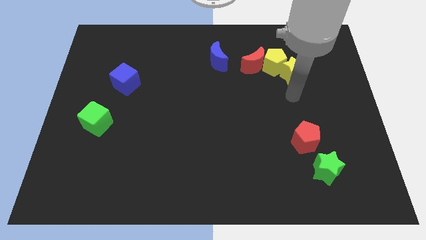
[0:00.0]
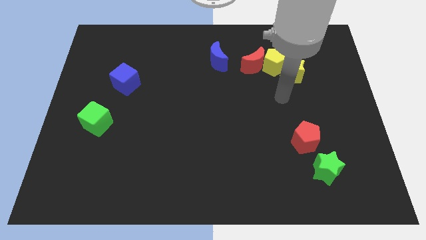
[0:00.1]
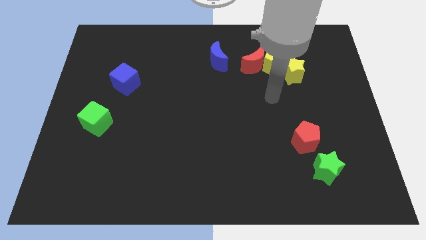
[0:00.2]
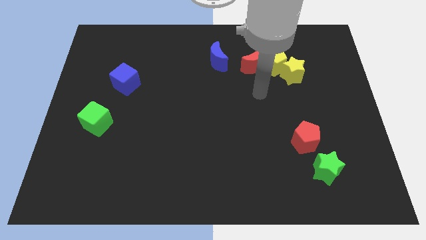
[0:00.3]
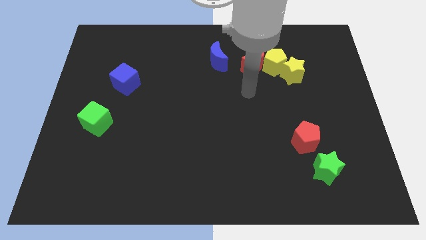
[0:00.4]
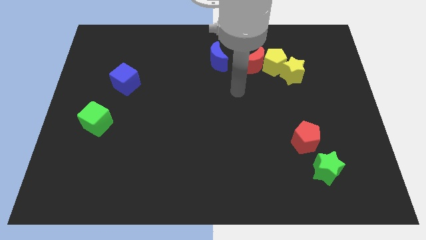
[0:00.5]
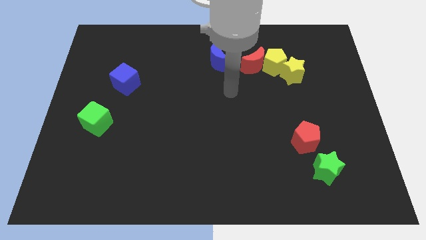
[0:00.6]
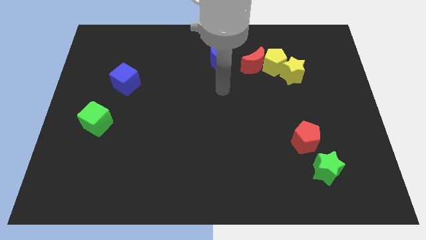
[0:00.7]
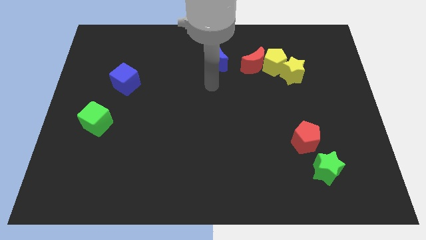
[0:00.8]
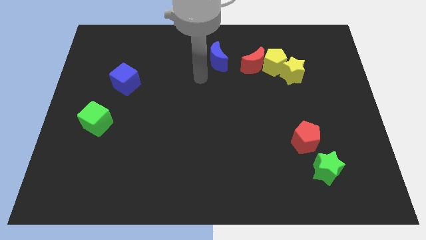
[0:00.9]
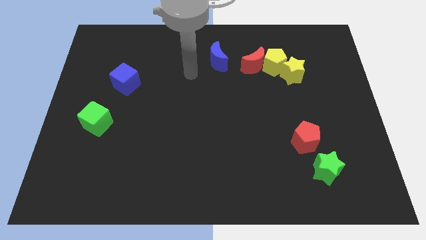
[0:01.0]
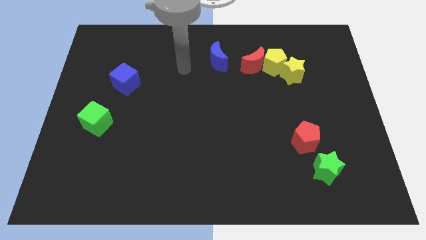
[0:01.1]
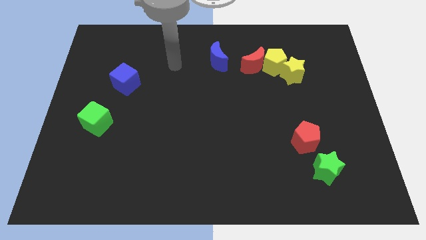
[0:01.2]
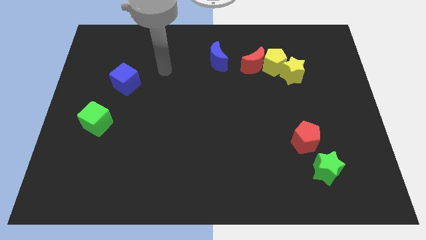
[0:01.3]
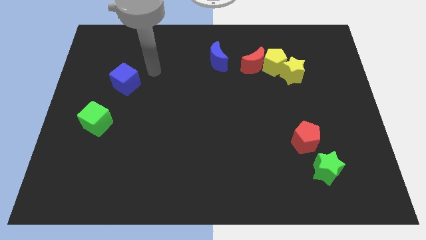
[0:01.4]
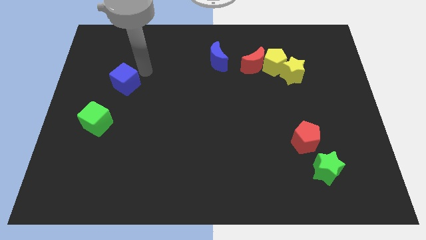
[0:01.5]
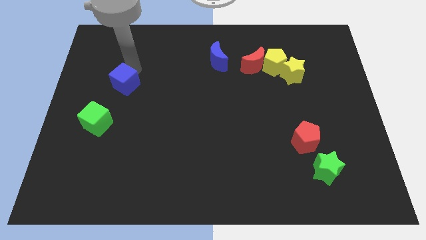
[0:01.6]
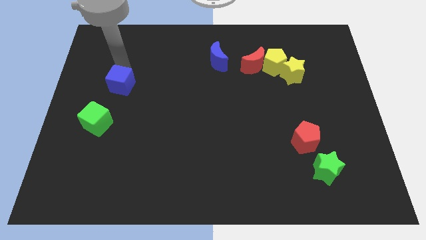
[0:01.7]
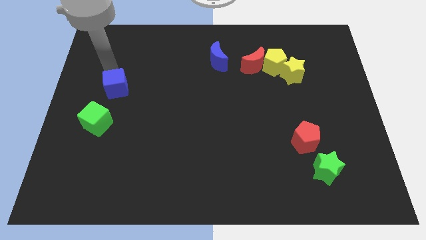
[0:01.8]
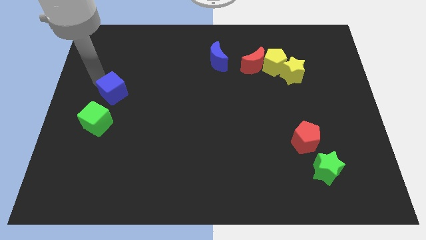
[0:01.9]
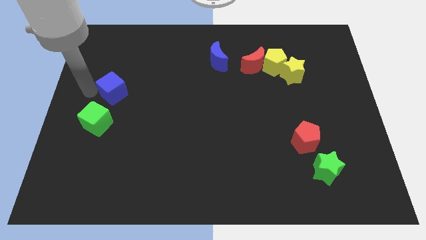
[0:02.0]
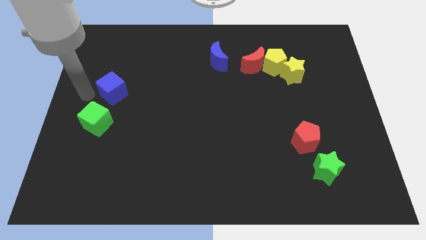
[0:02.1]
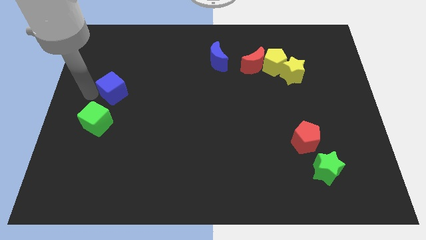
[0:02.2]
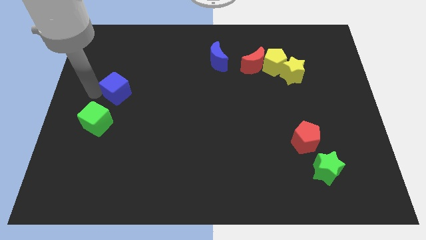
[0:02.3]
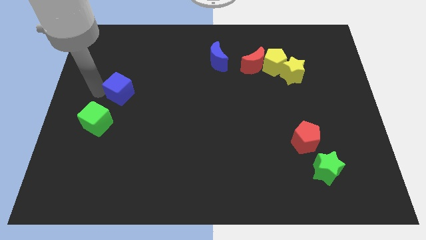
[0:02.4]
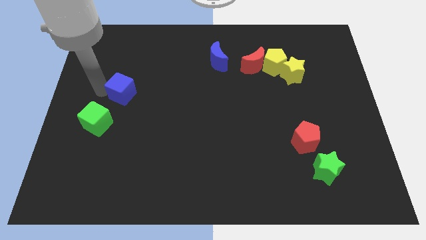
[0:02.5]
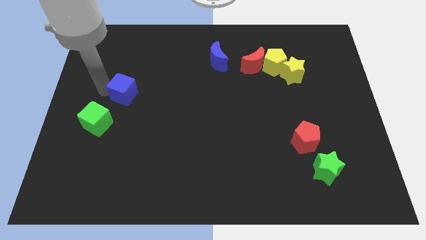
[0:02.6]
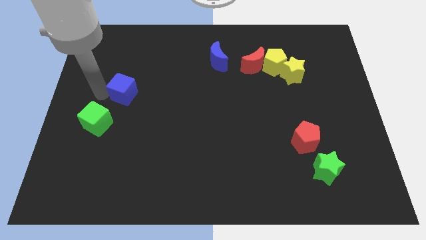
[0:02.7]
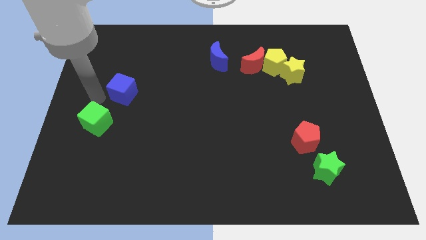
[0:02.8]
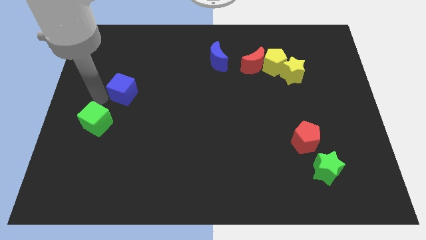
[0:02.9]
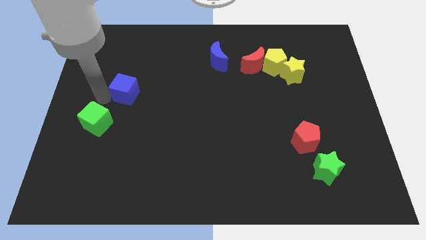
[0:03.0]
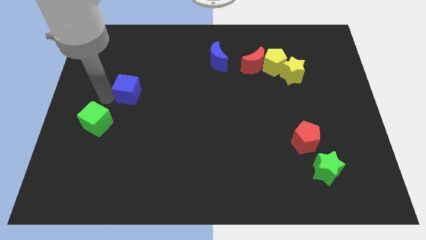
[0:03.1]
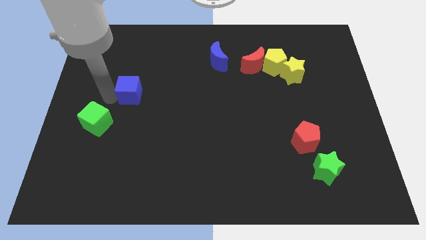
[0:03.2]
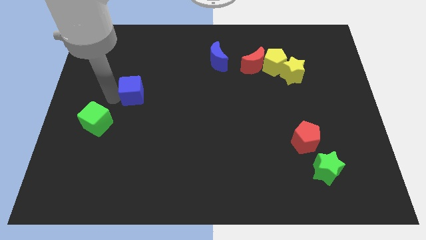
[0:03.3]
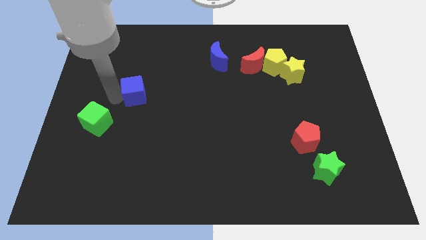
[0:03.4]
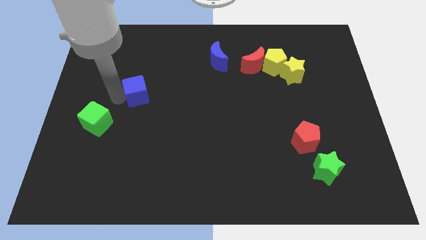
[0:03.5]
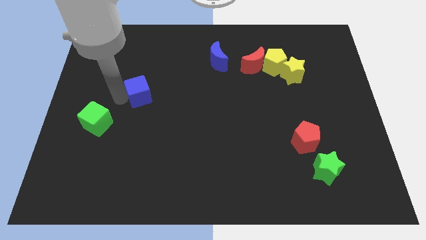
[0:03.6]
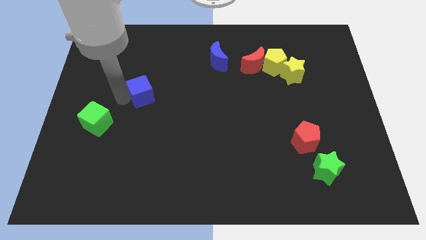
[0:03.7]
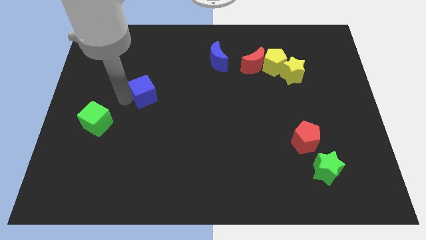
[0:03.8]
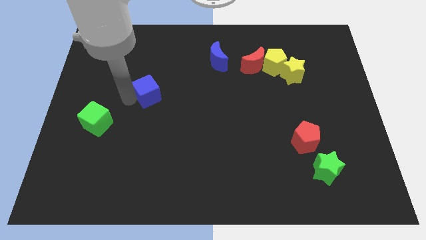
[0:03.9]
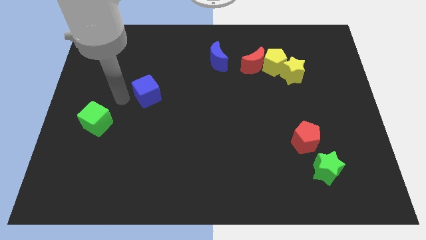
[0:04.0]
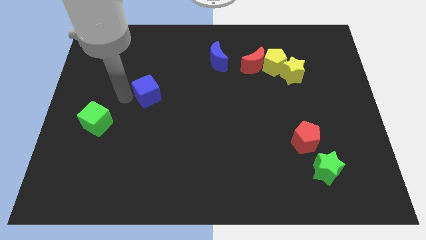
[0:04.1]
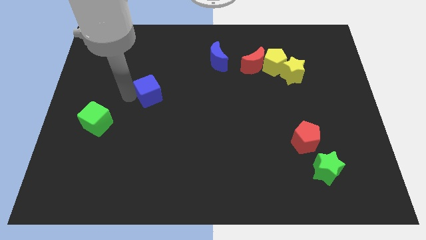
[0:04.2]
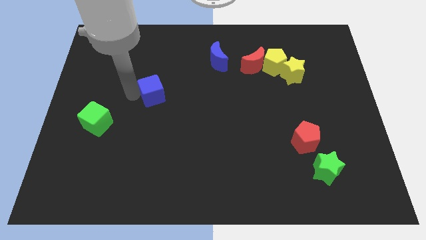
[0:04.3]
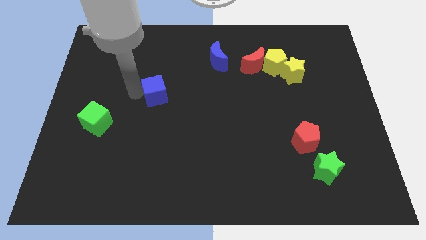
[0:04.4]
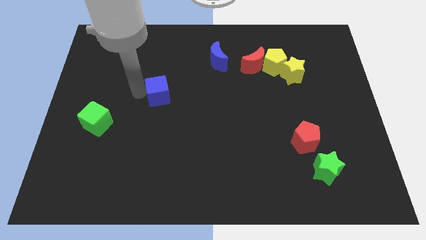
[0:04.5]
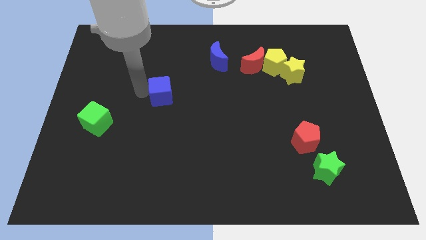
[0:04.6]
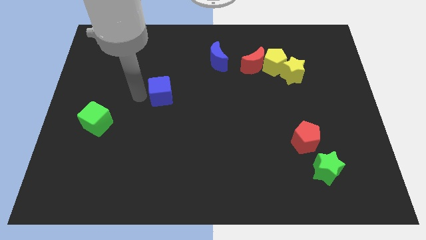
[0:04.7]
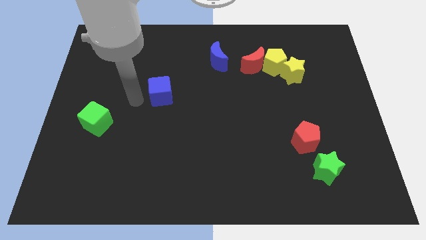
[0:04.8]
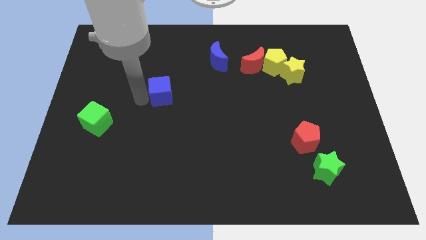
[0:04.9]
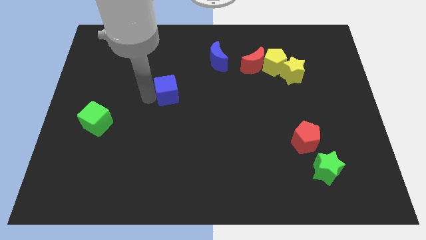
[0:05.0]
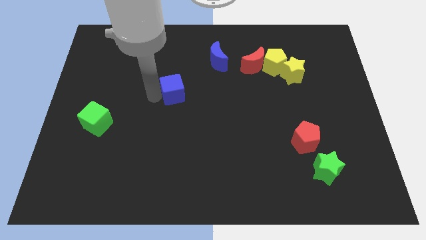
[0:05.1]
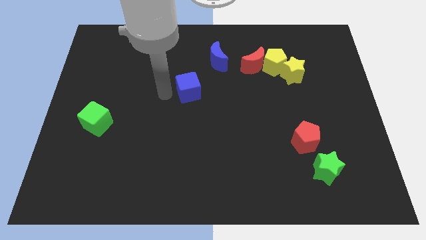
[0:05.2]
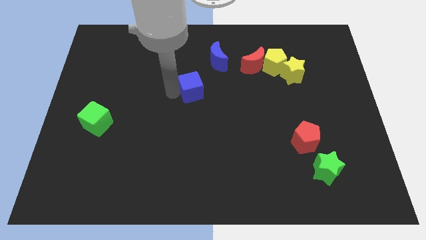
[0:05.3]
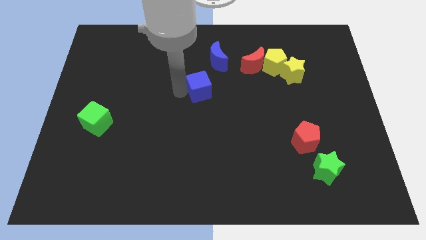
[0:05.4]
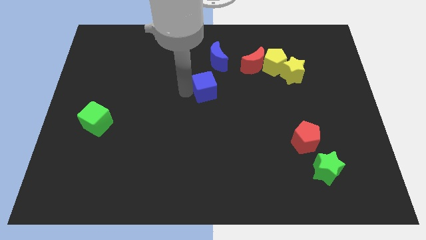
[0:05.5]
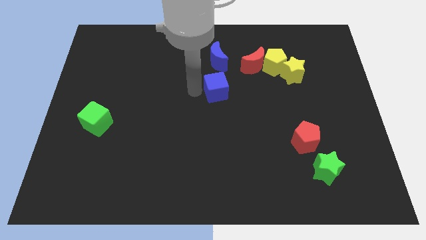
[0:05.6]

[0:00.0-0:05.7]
move the blue cube to the right

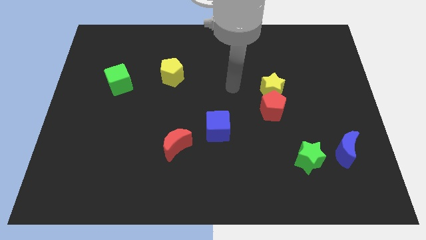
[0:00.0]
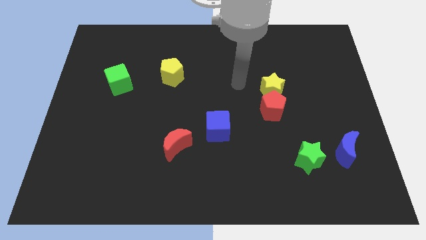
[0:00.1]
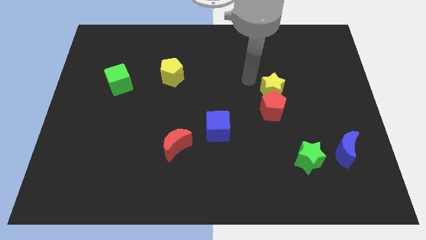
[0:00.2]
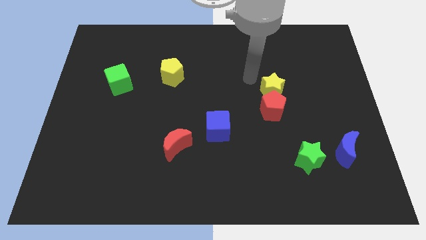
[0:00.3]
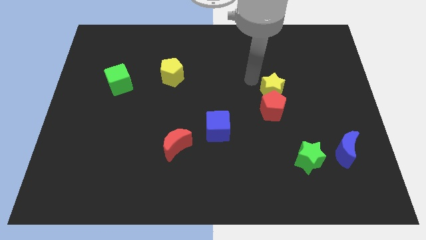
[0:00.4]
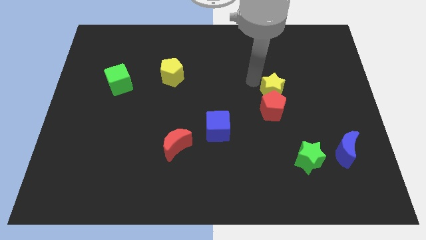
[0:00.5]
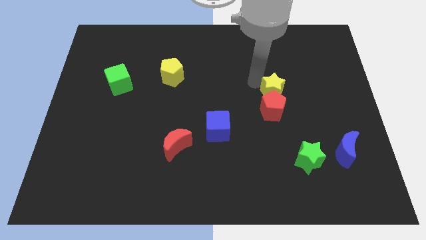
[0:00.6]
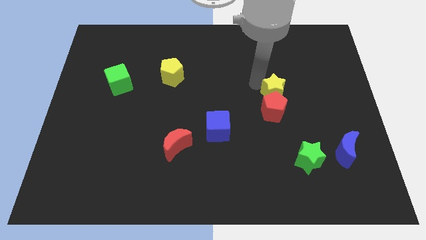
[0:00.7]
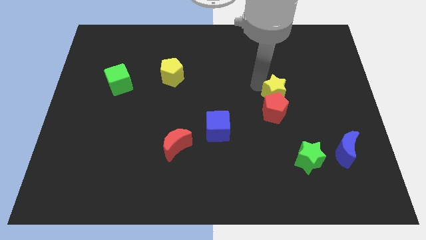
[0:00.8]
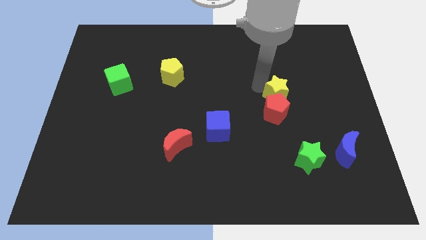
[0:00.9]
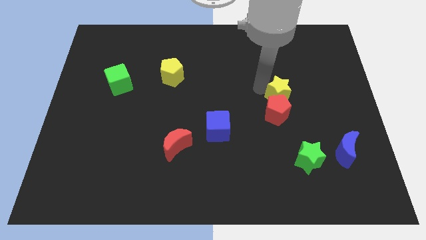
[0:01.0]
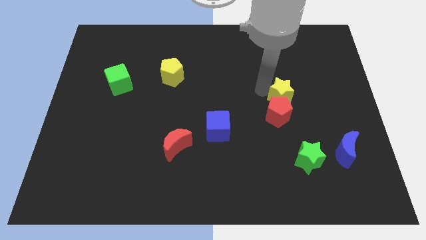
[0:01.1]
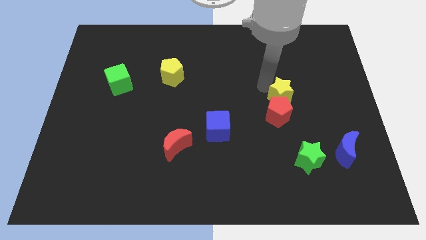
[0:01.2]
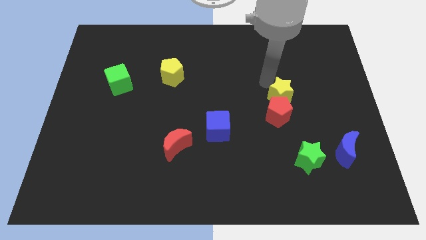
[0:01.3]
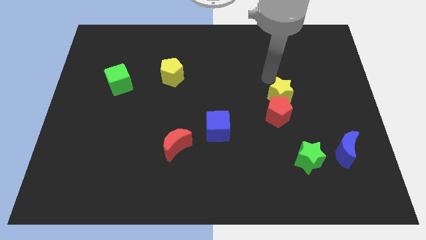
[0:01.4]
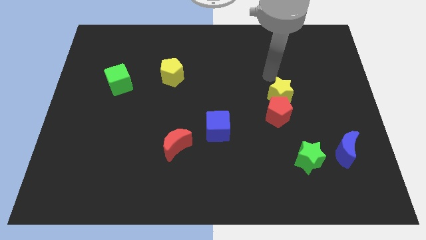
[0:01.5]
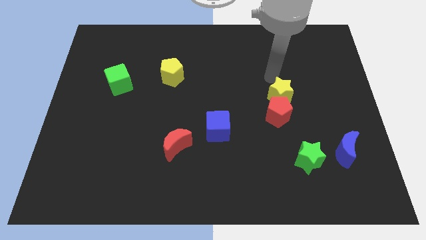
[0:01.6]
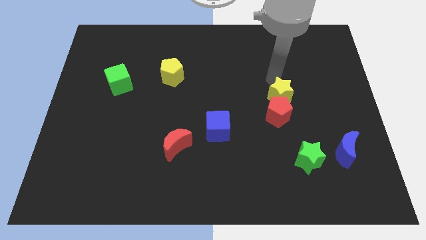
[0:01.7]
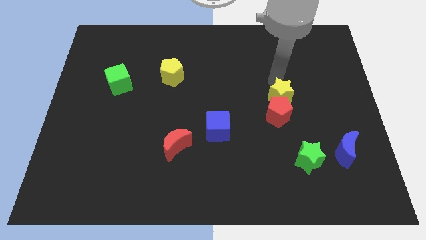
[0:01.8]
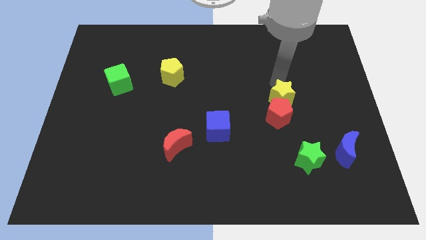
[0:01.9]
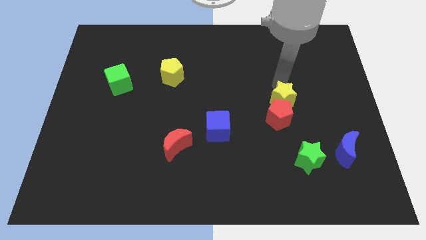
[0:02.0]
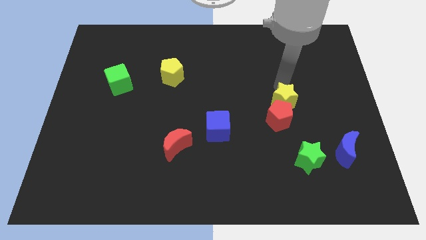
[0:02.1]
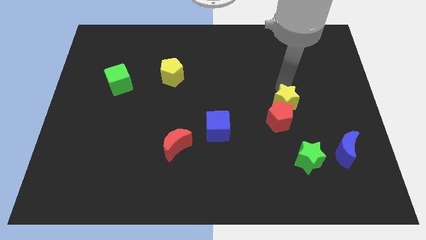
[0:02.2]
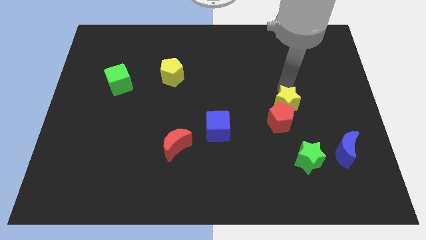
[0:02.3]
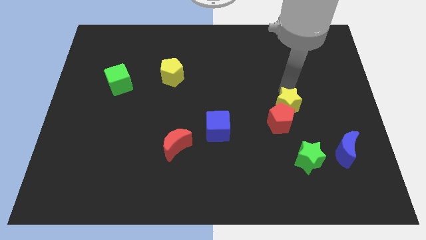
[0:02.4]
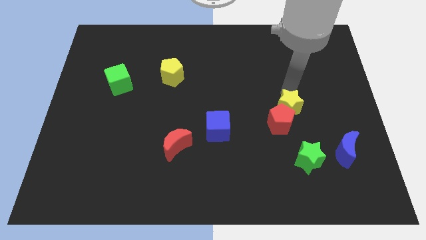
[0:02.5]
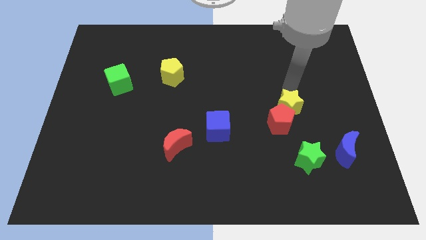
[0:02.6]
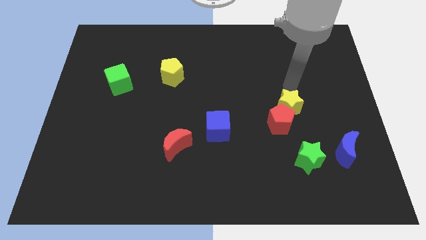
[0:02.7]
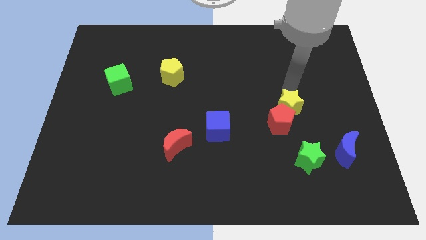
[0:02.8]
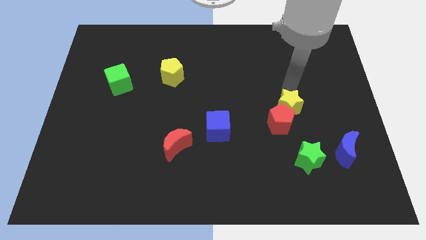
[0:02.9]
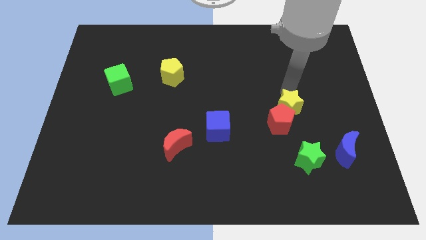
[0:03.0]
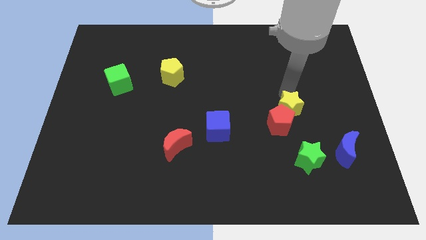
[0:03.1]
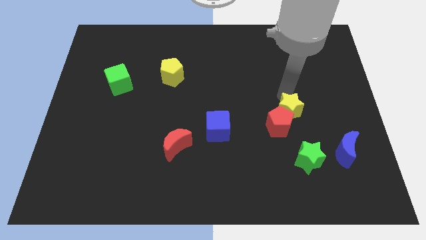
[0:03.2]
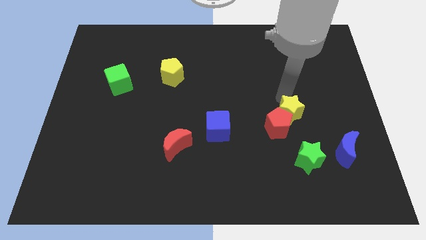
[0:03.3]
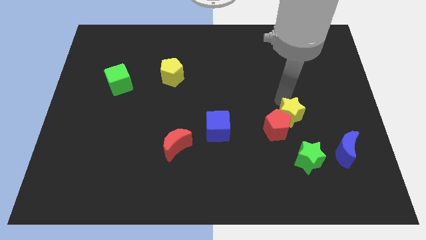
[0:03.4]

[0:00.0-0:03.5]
slide the yellow star a little bit downwards
